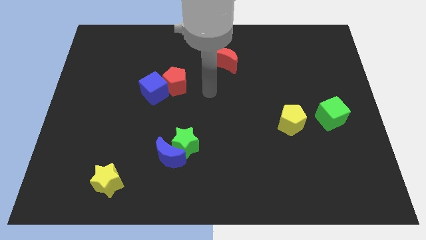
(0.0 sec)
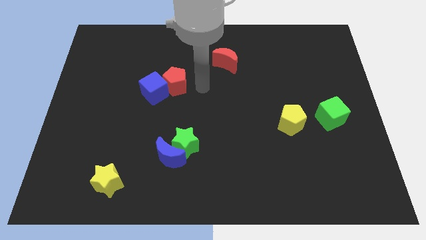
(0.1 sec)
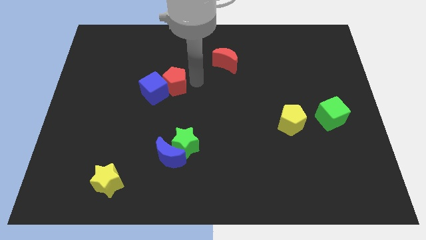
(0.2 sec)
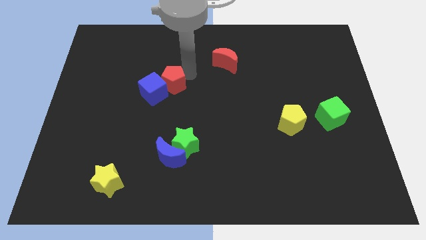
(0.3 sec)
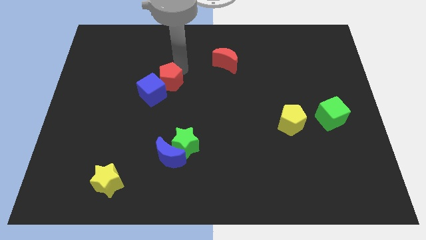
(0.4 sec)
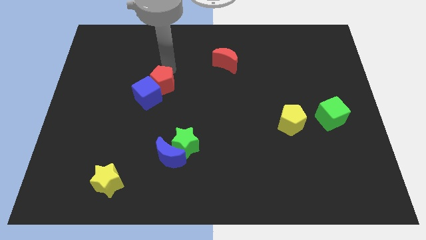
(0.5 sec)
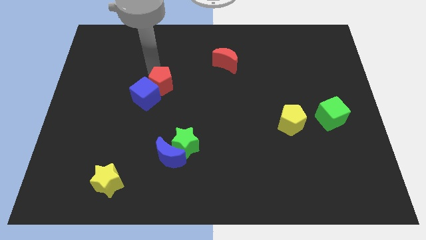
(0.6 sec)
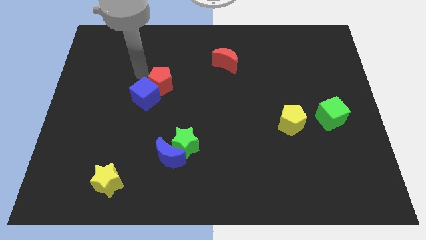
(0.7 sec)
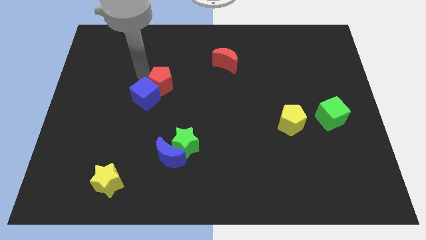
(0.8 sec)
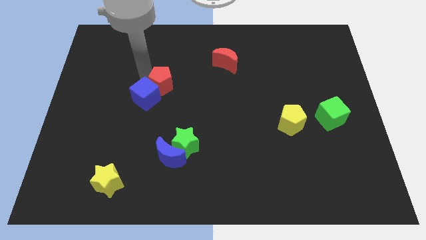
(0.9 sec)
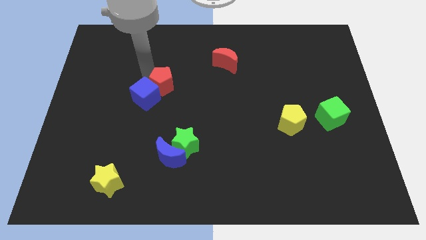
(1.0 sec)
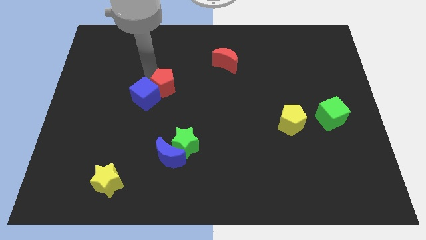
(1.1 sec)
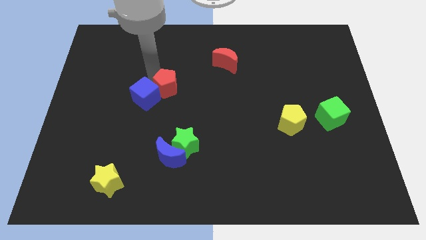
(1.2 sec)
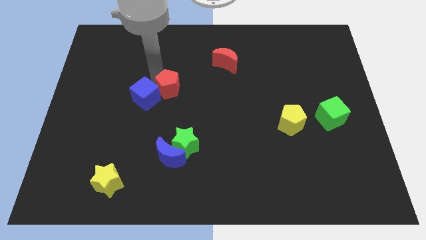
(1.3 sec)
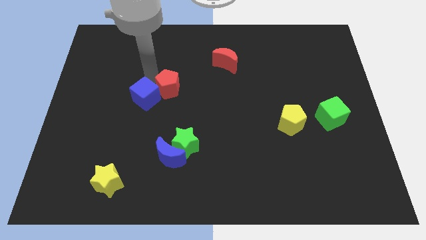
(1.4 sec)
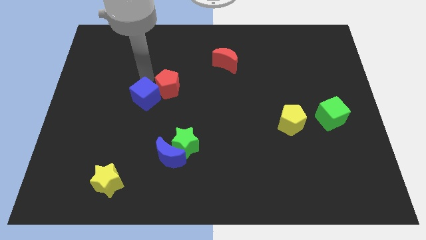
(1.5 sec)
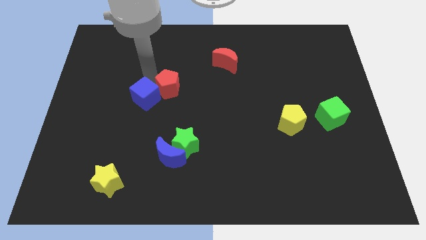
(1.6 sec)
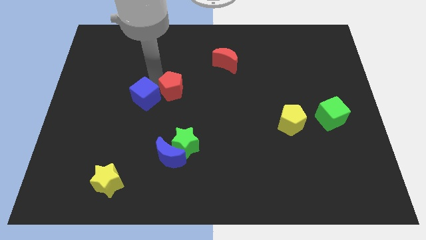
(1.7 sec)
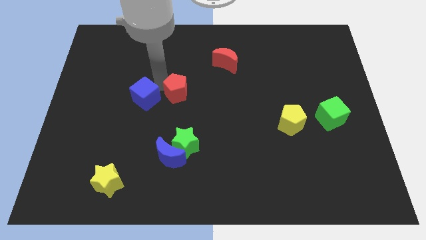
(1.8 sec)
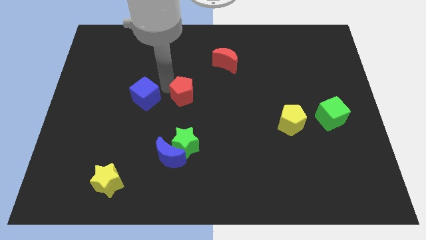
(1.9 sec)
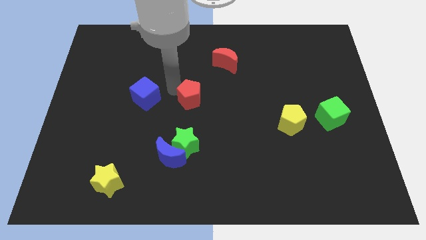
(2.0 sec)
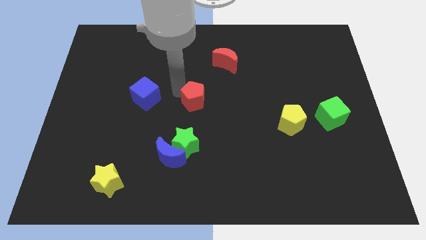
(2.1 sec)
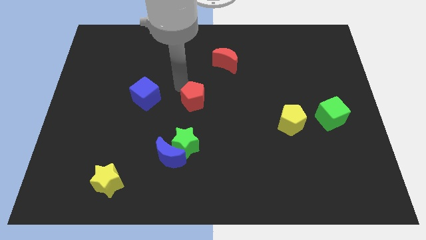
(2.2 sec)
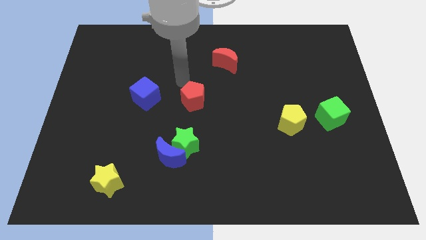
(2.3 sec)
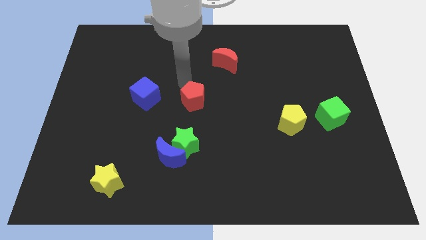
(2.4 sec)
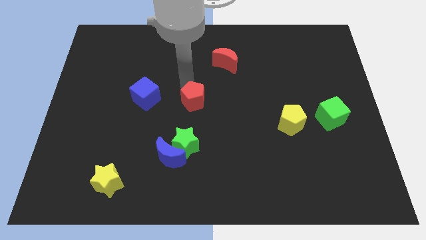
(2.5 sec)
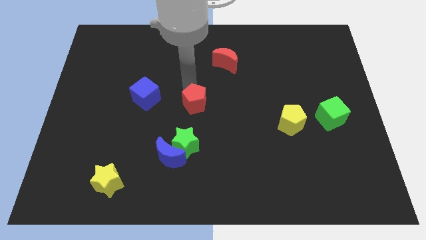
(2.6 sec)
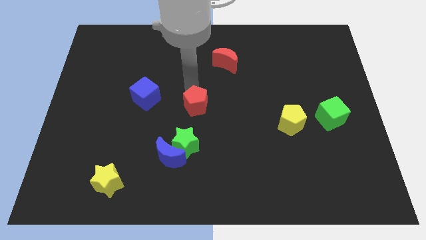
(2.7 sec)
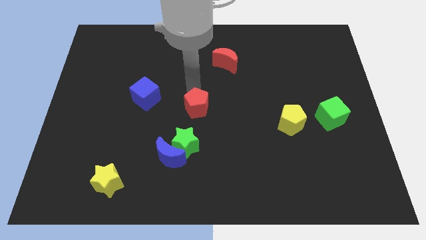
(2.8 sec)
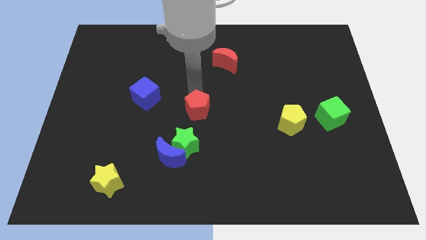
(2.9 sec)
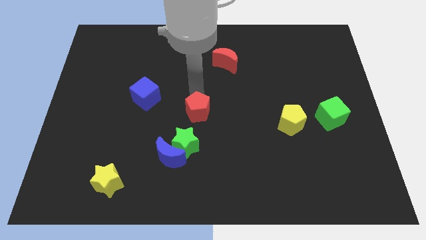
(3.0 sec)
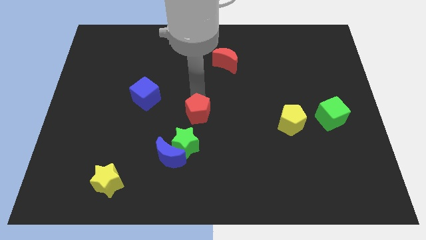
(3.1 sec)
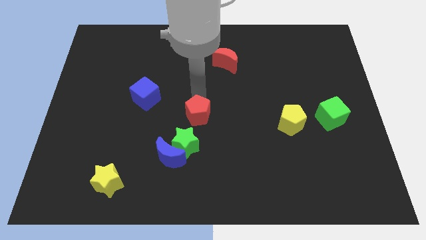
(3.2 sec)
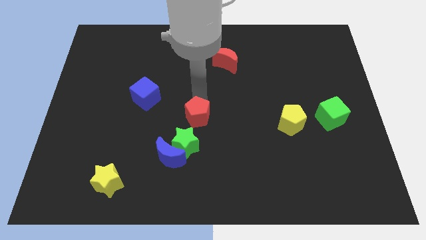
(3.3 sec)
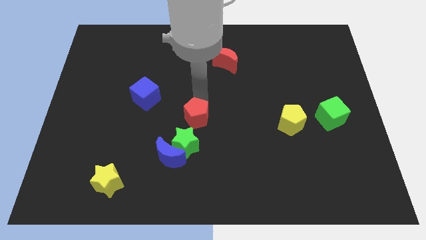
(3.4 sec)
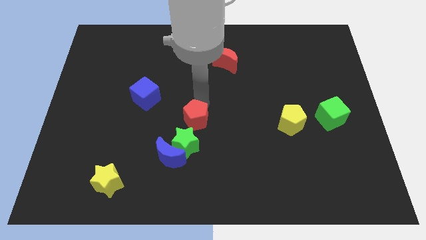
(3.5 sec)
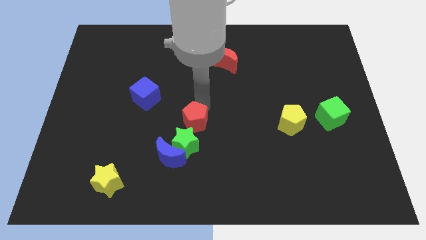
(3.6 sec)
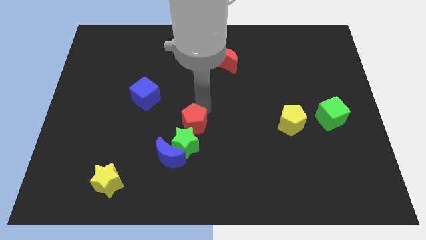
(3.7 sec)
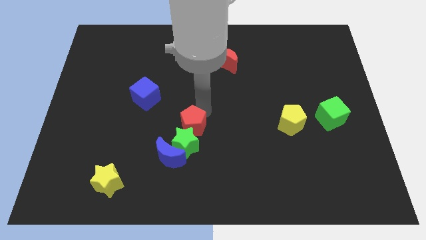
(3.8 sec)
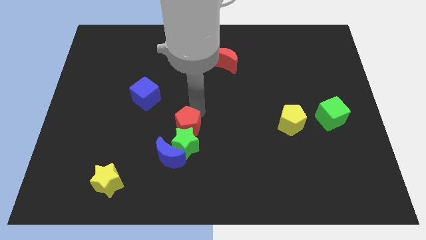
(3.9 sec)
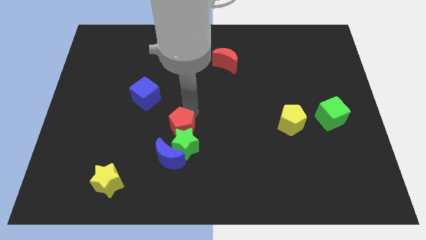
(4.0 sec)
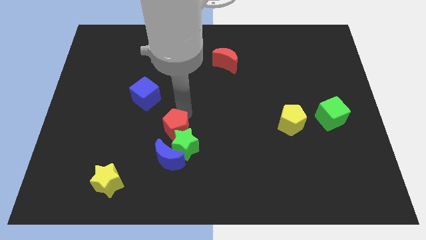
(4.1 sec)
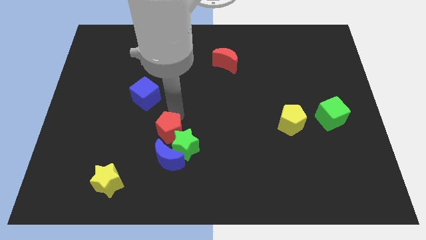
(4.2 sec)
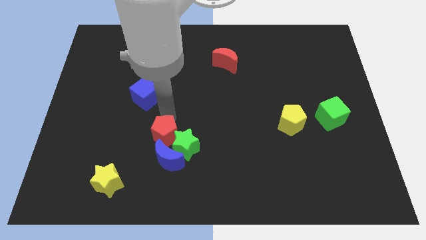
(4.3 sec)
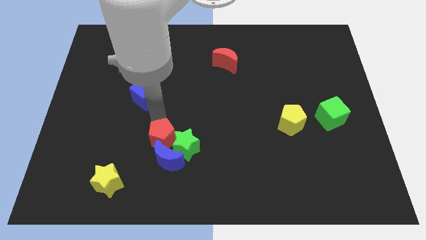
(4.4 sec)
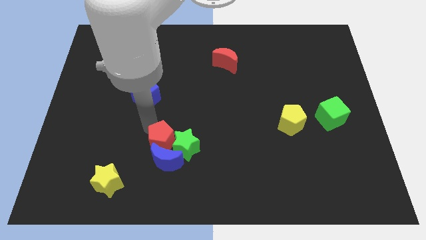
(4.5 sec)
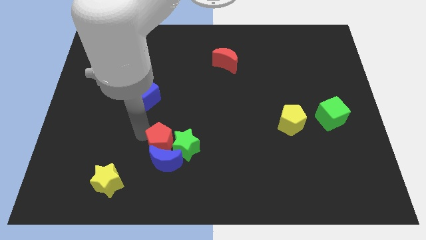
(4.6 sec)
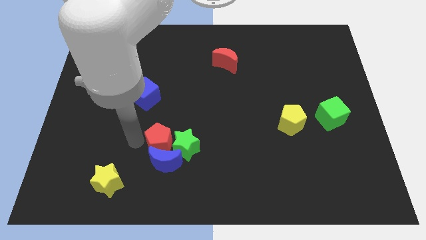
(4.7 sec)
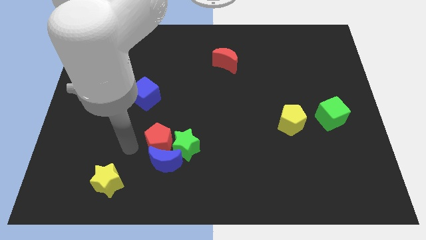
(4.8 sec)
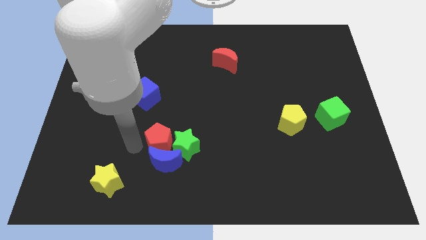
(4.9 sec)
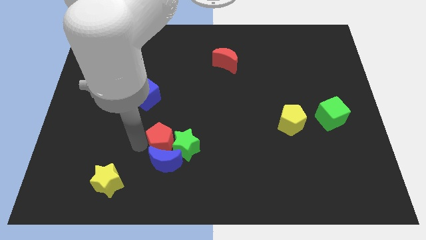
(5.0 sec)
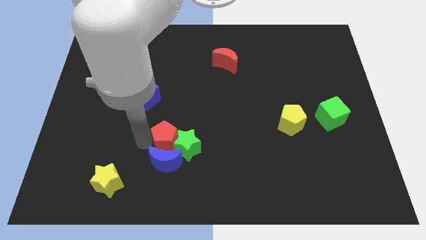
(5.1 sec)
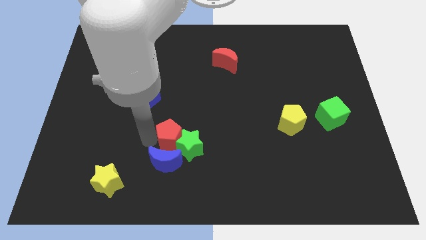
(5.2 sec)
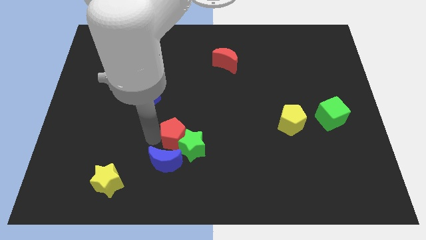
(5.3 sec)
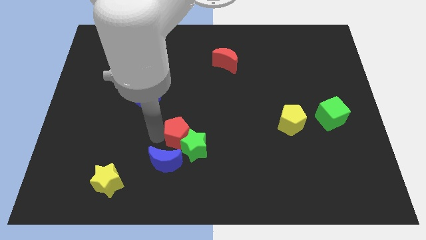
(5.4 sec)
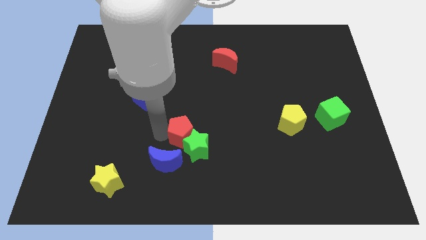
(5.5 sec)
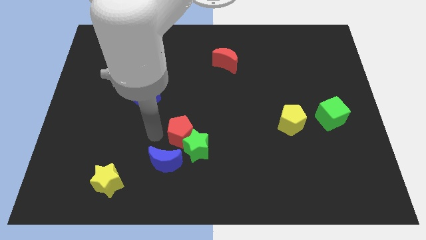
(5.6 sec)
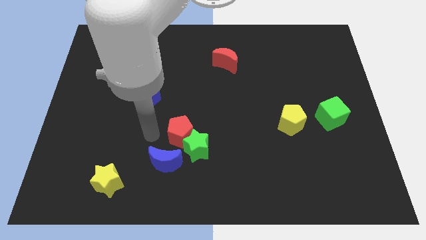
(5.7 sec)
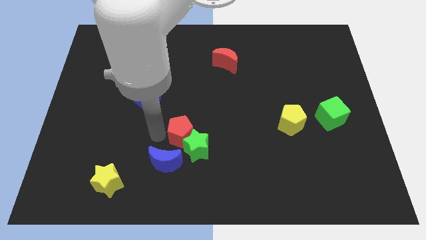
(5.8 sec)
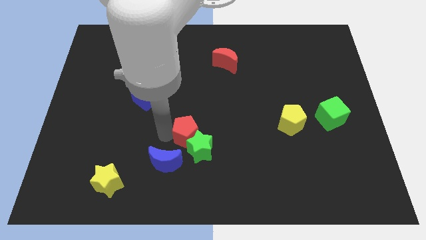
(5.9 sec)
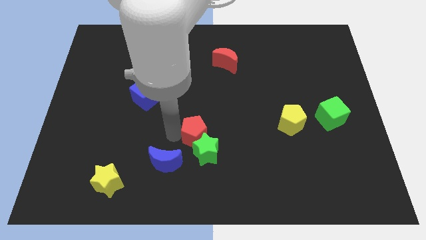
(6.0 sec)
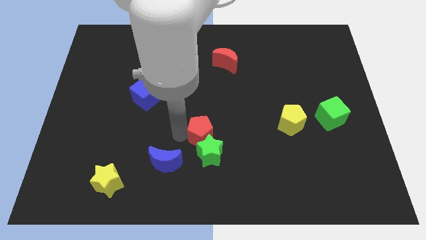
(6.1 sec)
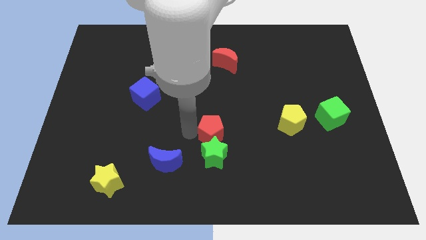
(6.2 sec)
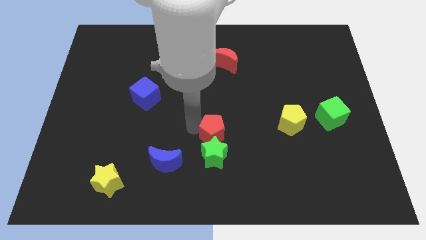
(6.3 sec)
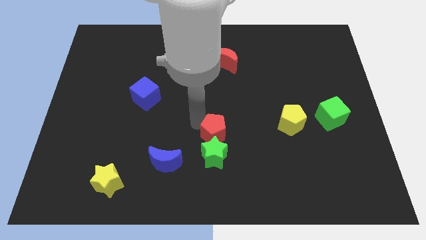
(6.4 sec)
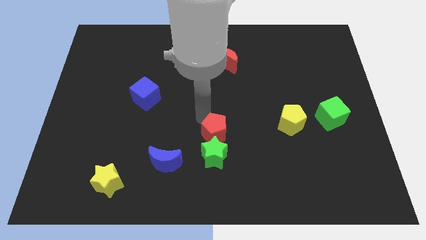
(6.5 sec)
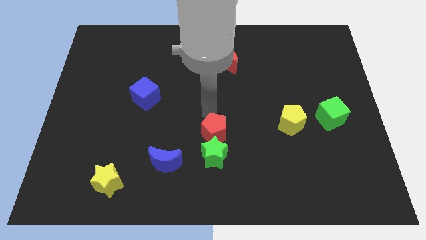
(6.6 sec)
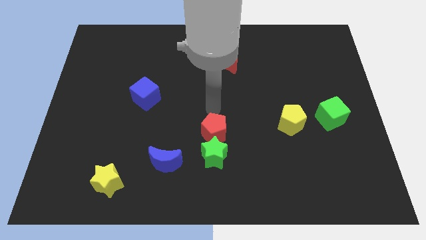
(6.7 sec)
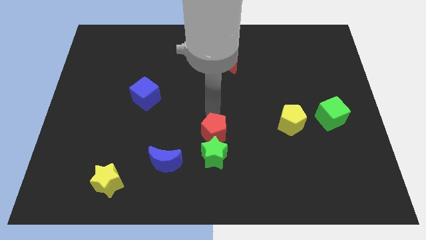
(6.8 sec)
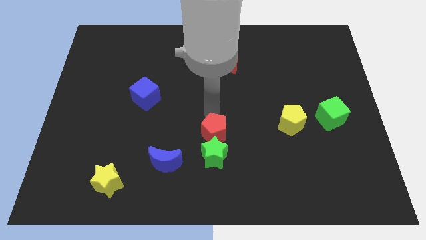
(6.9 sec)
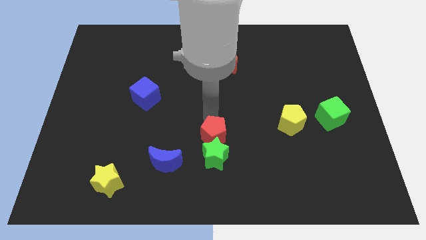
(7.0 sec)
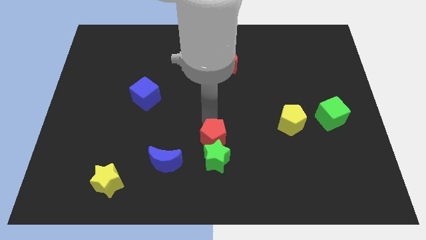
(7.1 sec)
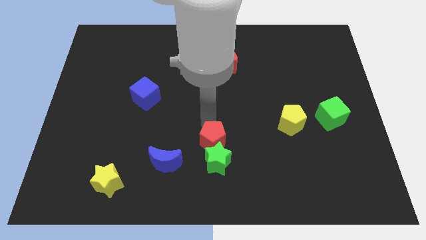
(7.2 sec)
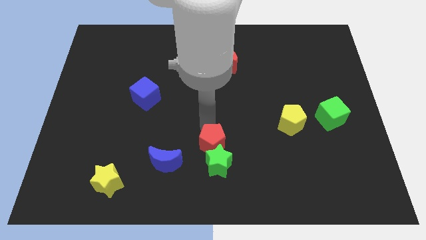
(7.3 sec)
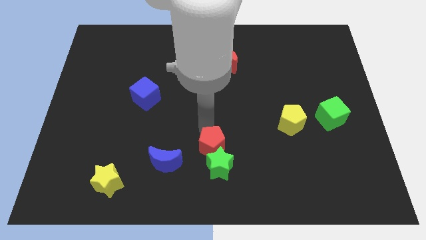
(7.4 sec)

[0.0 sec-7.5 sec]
move the red pentagon just right of the blue moon

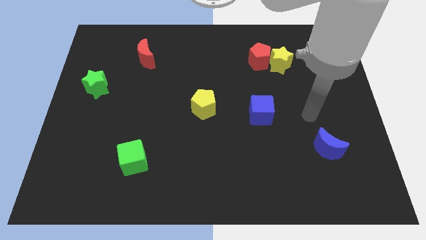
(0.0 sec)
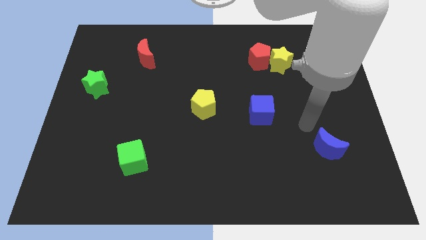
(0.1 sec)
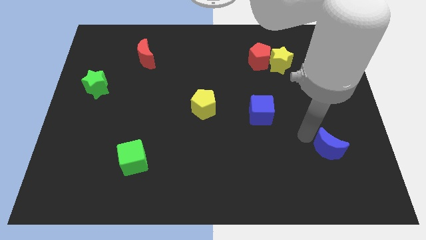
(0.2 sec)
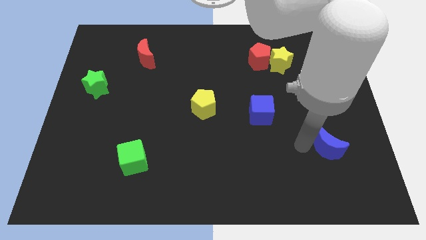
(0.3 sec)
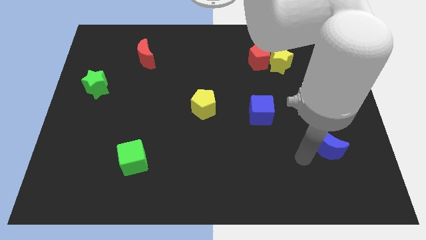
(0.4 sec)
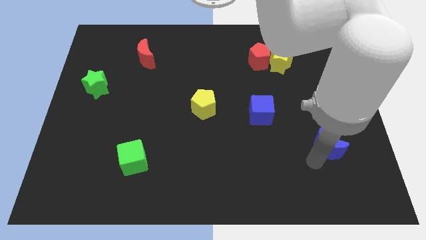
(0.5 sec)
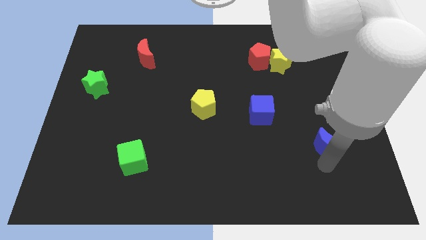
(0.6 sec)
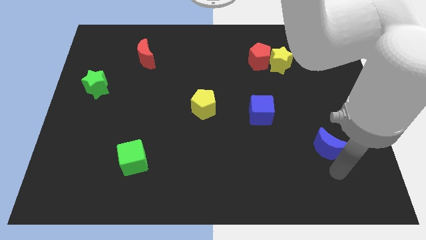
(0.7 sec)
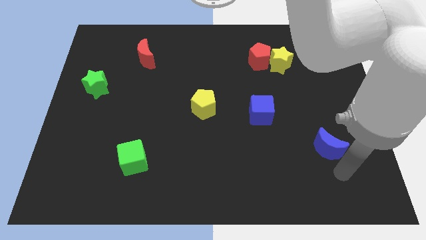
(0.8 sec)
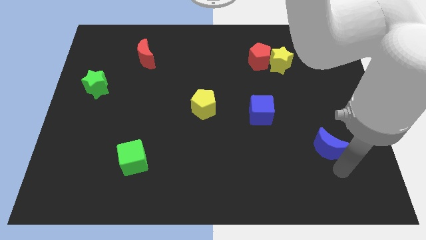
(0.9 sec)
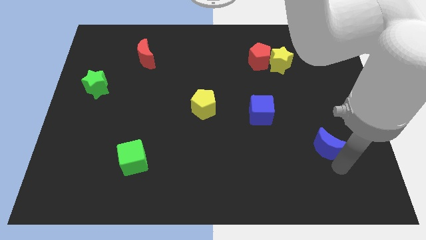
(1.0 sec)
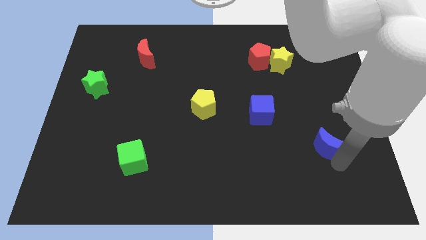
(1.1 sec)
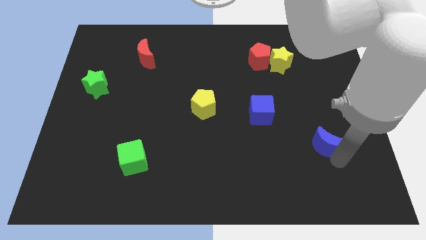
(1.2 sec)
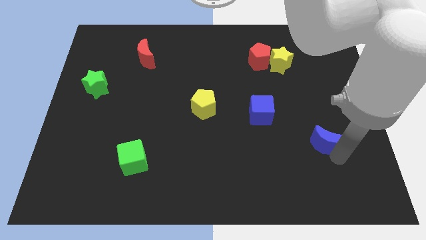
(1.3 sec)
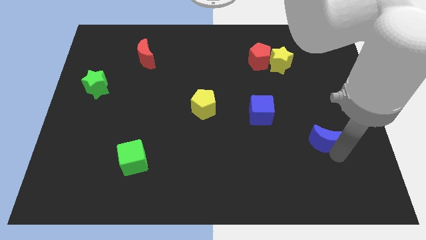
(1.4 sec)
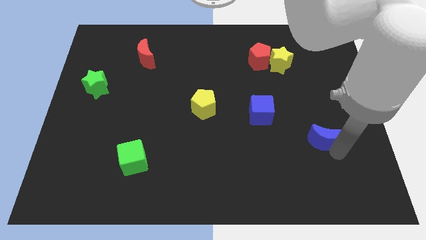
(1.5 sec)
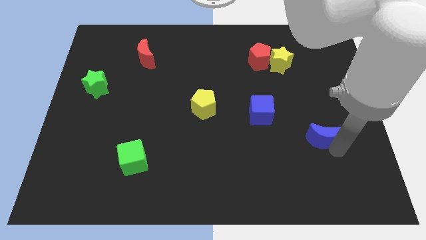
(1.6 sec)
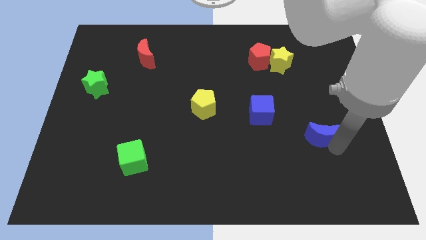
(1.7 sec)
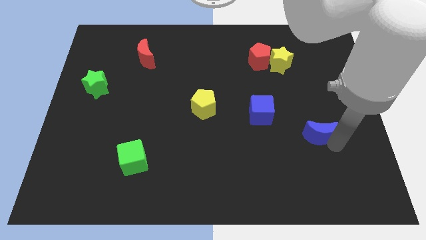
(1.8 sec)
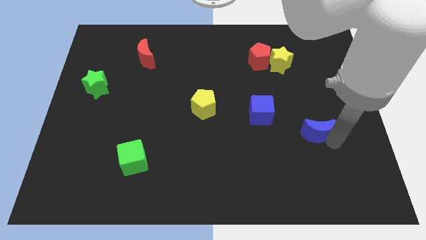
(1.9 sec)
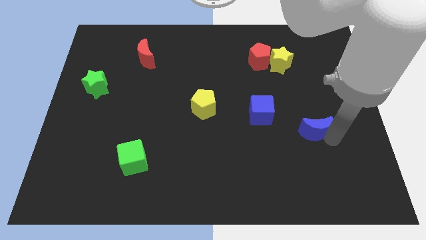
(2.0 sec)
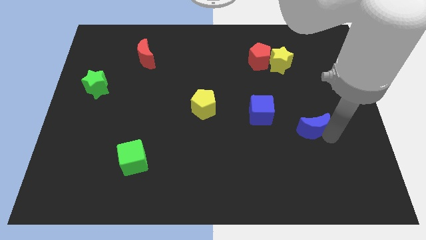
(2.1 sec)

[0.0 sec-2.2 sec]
move the blue moon to the right of the blue cube
